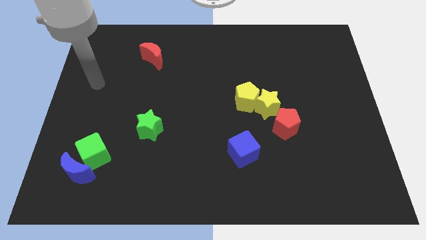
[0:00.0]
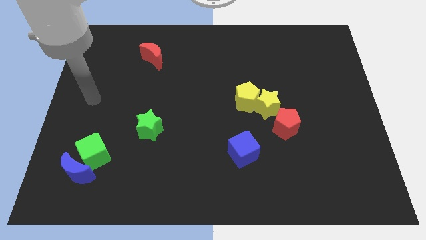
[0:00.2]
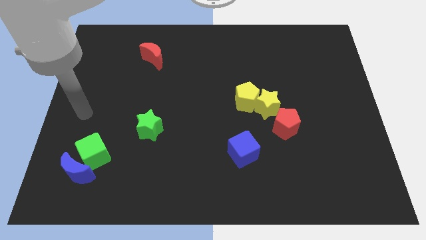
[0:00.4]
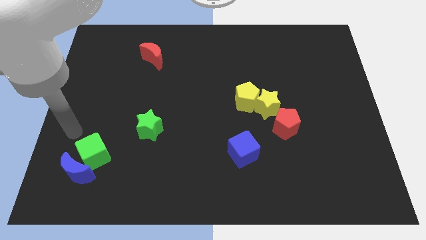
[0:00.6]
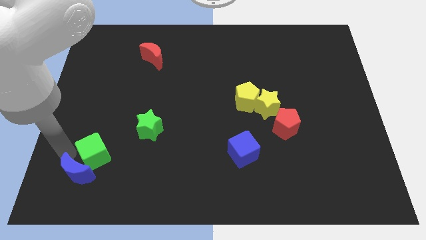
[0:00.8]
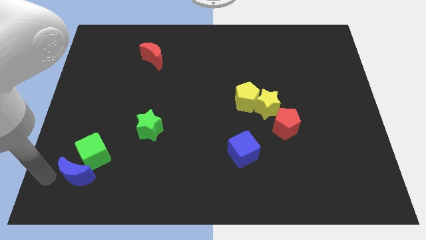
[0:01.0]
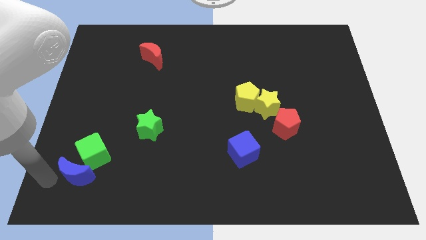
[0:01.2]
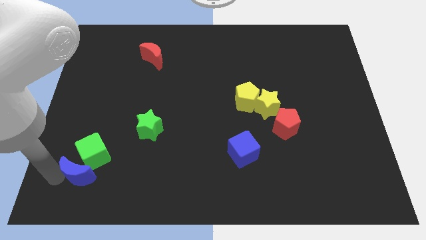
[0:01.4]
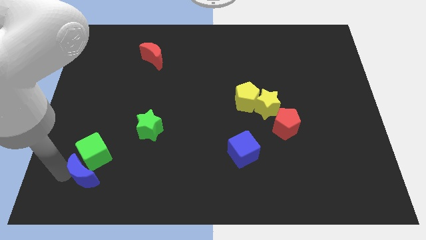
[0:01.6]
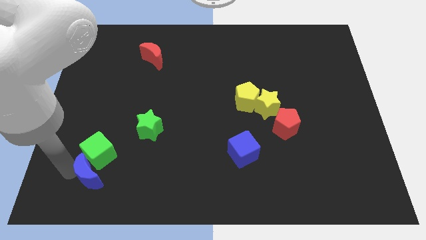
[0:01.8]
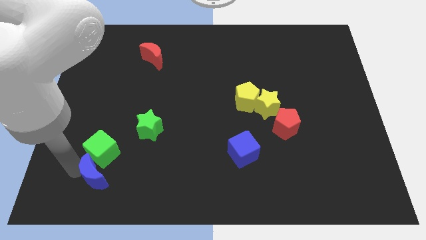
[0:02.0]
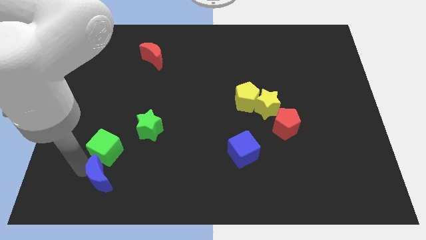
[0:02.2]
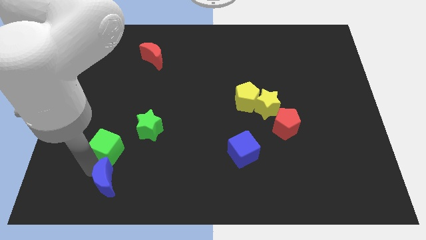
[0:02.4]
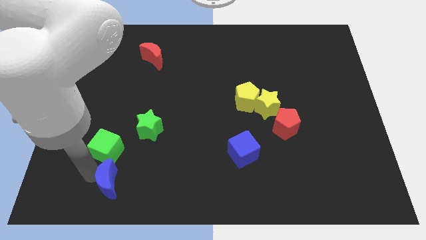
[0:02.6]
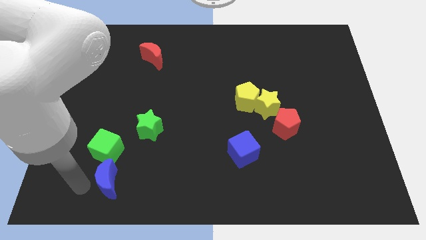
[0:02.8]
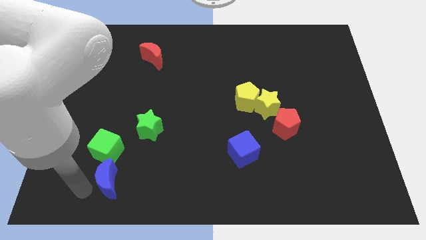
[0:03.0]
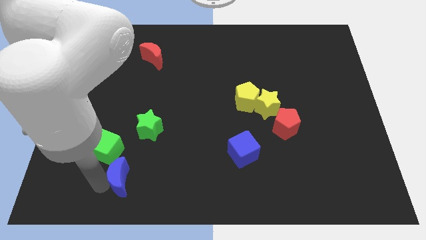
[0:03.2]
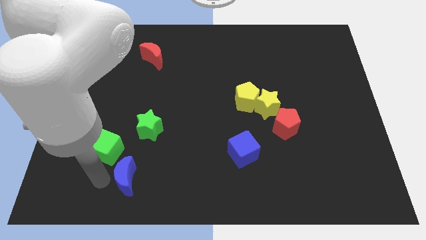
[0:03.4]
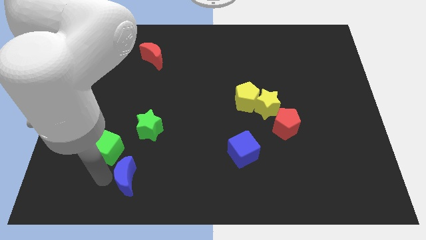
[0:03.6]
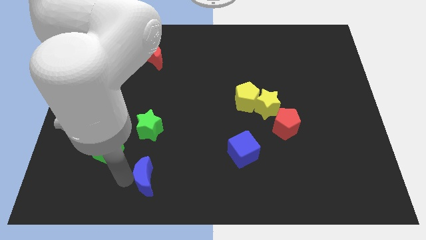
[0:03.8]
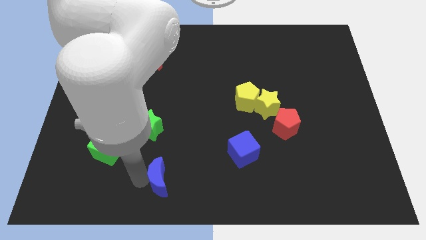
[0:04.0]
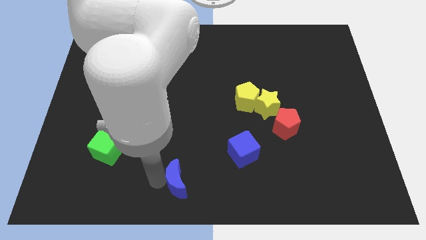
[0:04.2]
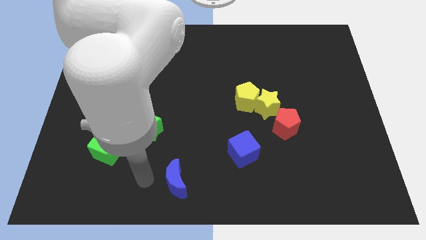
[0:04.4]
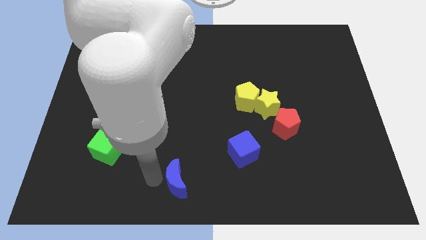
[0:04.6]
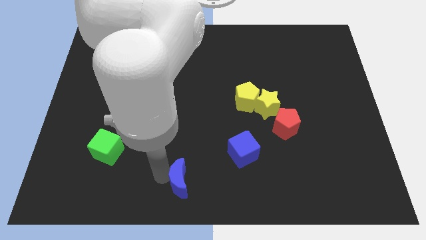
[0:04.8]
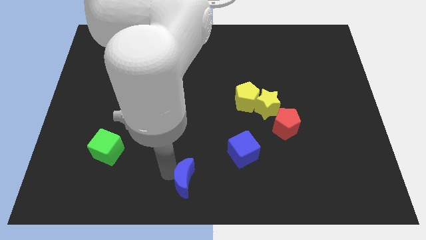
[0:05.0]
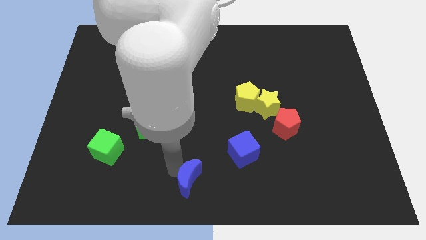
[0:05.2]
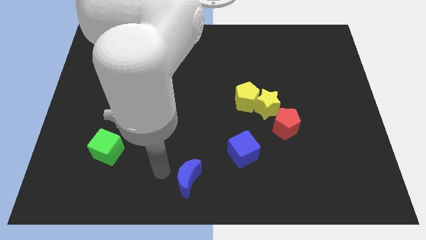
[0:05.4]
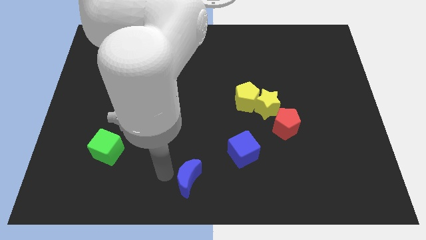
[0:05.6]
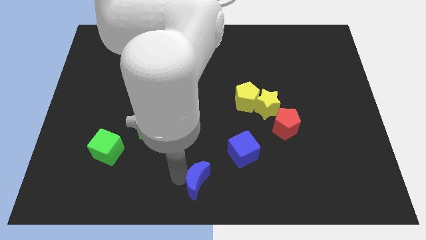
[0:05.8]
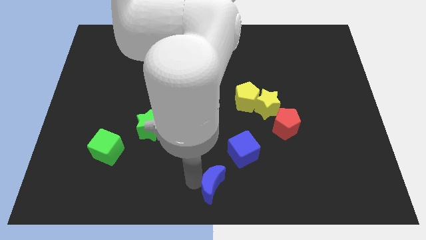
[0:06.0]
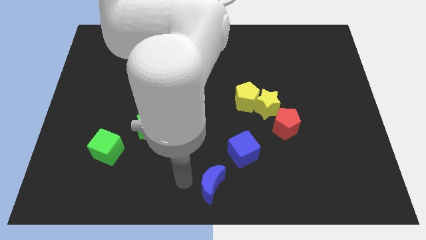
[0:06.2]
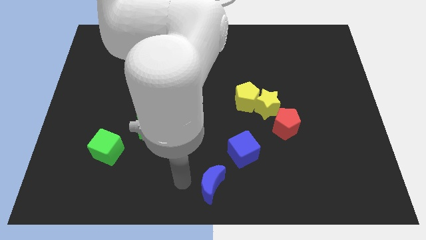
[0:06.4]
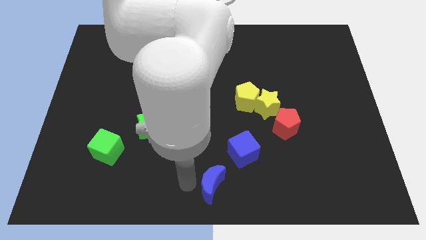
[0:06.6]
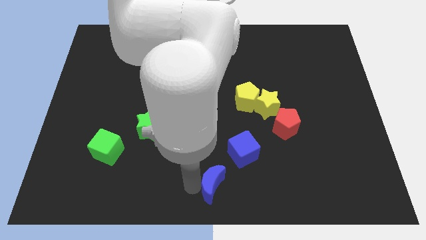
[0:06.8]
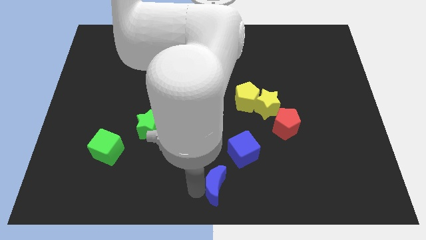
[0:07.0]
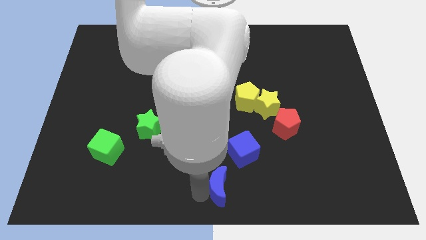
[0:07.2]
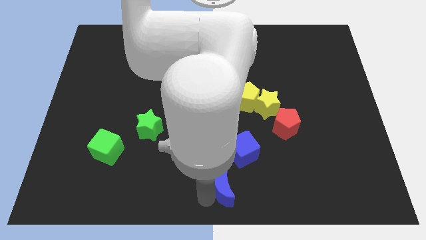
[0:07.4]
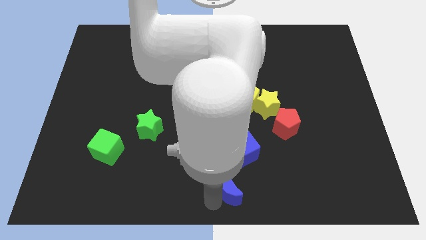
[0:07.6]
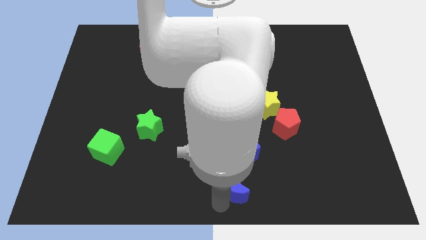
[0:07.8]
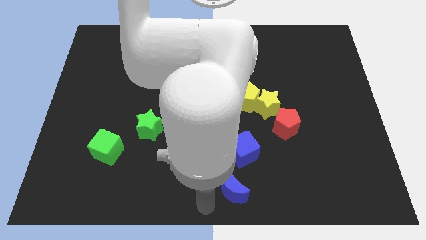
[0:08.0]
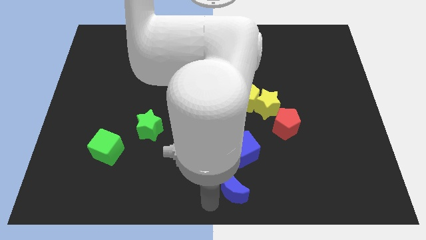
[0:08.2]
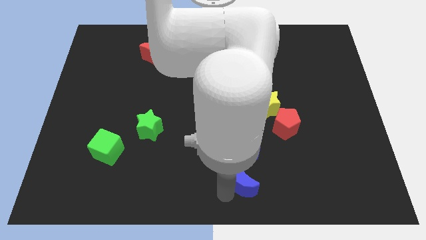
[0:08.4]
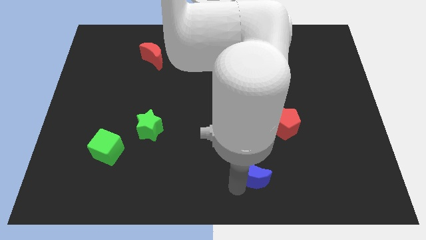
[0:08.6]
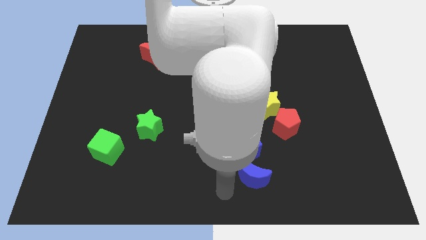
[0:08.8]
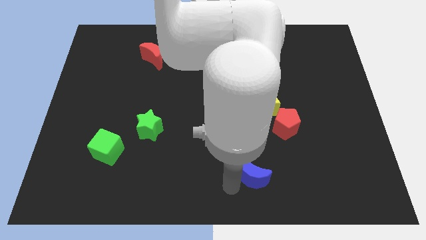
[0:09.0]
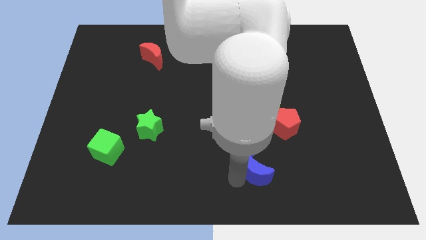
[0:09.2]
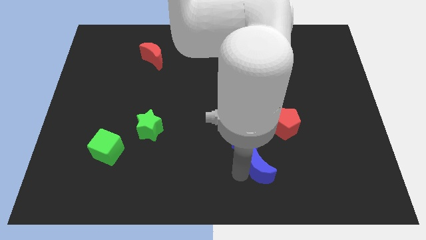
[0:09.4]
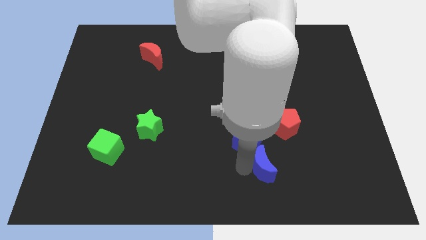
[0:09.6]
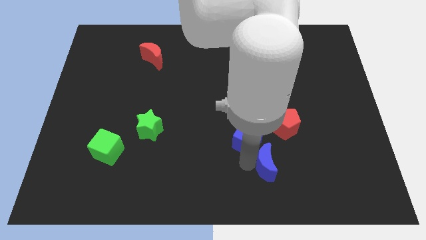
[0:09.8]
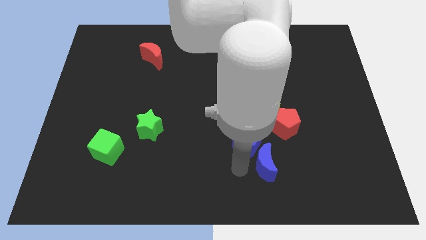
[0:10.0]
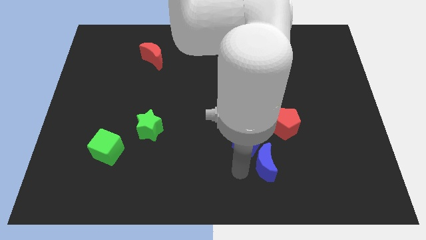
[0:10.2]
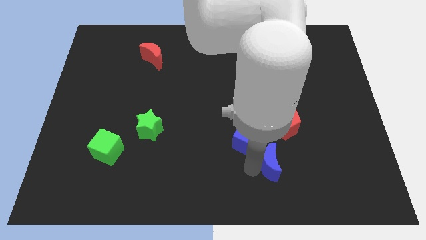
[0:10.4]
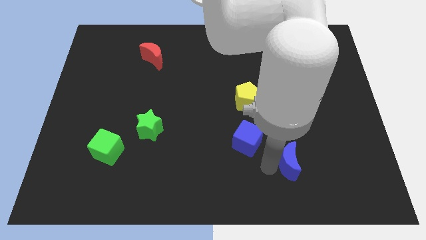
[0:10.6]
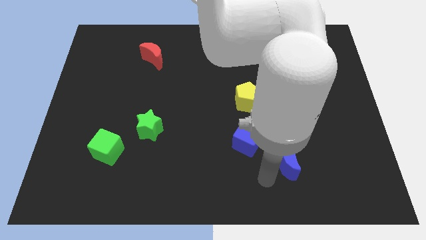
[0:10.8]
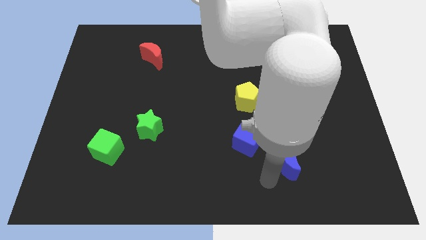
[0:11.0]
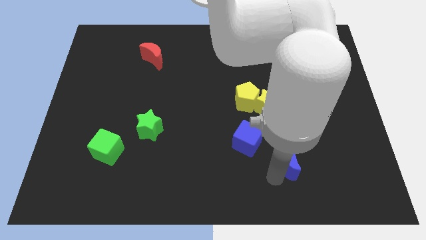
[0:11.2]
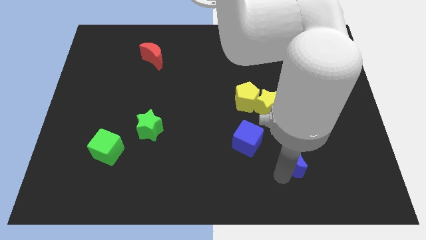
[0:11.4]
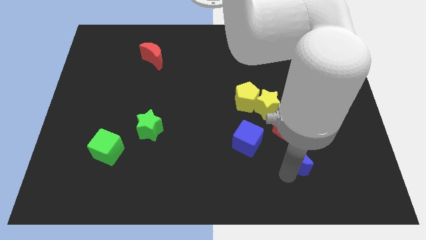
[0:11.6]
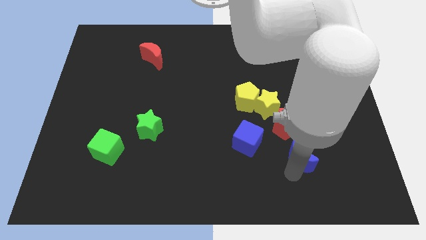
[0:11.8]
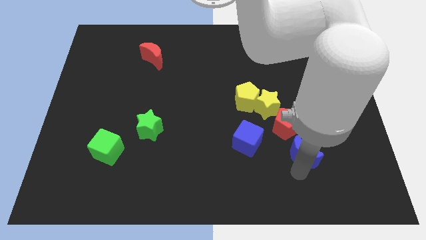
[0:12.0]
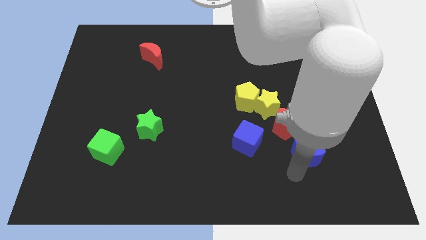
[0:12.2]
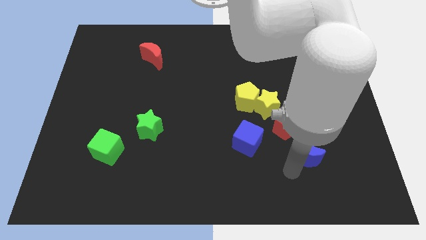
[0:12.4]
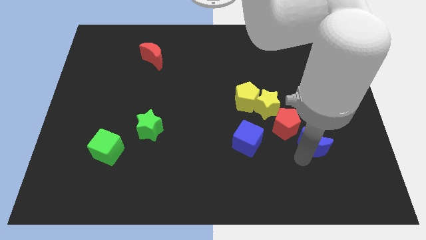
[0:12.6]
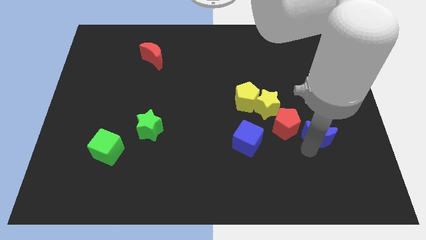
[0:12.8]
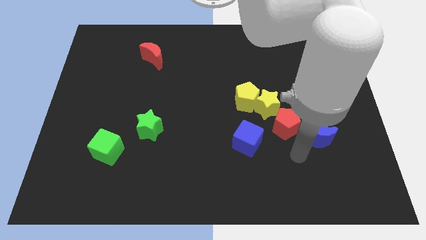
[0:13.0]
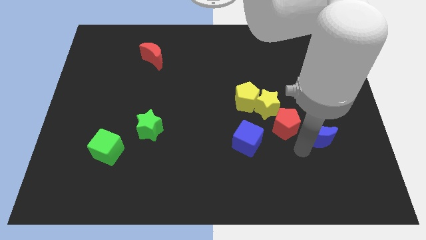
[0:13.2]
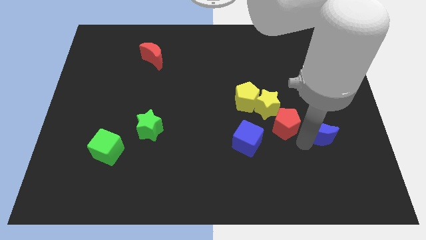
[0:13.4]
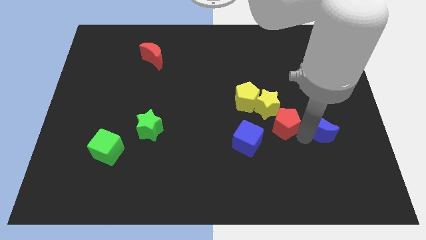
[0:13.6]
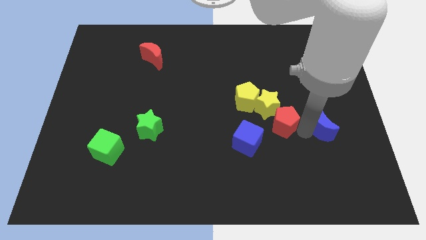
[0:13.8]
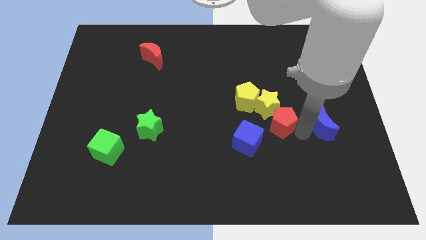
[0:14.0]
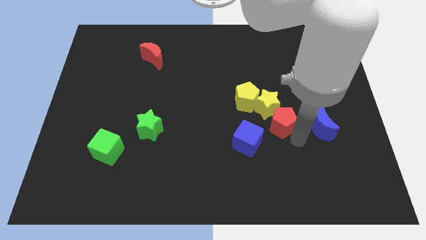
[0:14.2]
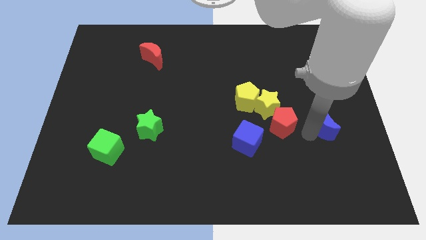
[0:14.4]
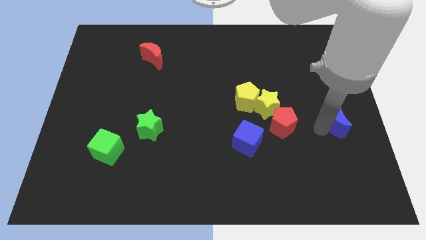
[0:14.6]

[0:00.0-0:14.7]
push the blue moon to the right side
